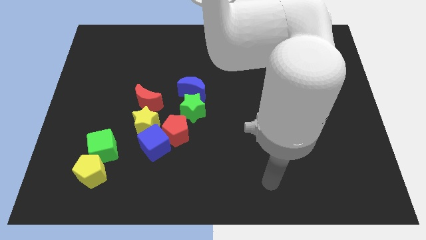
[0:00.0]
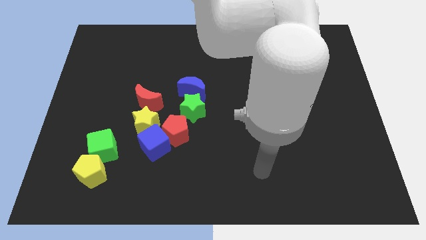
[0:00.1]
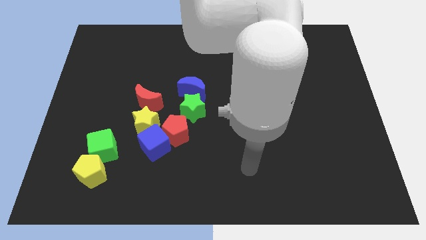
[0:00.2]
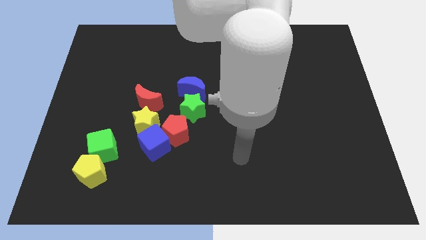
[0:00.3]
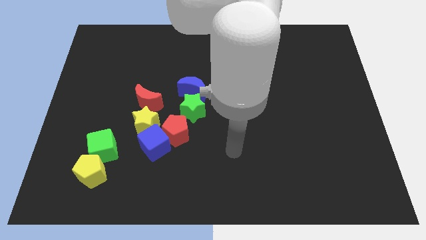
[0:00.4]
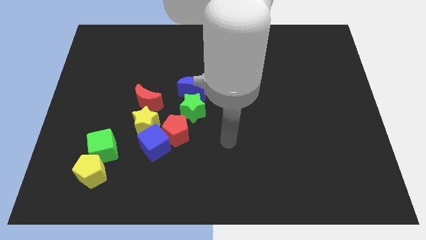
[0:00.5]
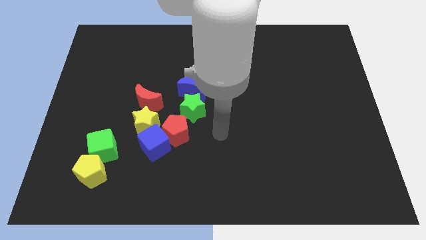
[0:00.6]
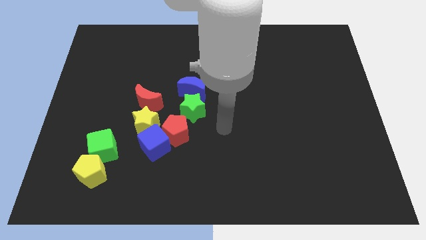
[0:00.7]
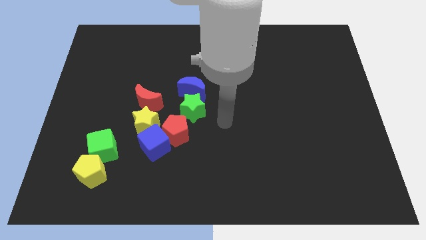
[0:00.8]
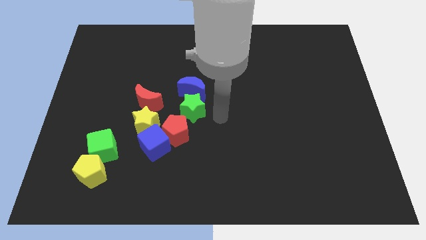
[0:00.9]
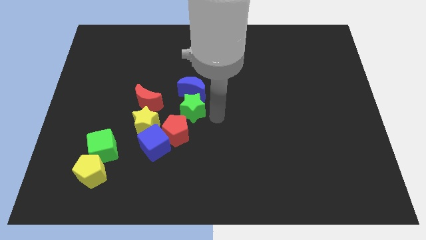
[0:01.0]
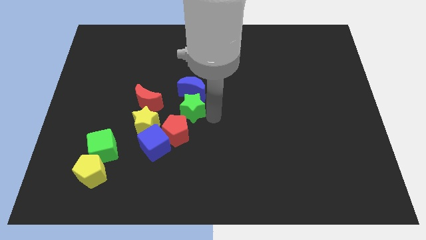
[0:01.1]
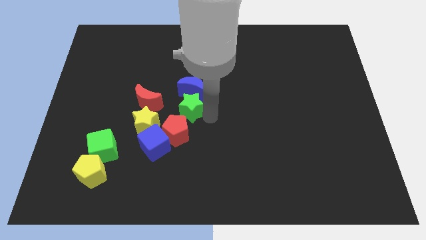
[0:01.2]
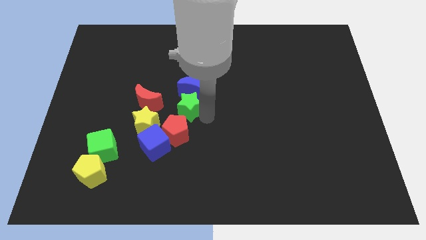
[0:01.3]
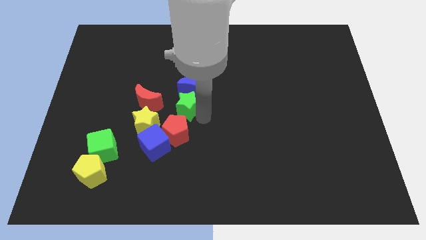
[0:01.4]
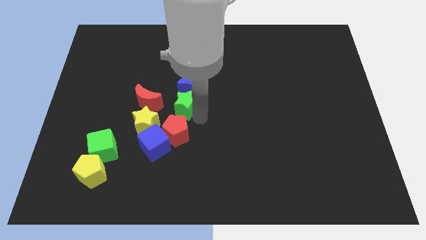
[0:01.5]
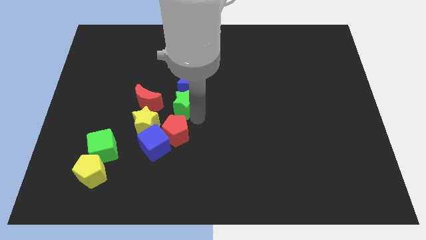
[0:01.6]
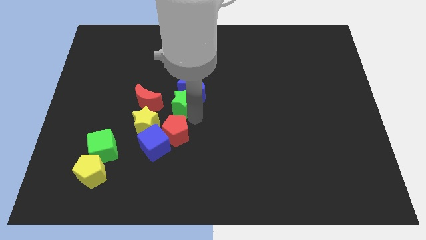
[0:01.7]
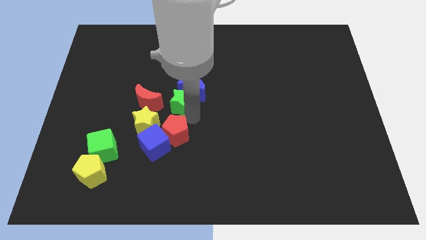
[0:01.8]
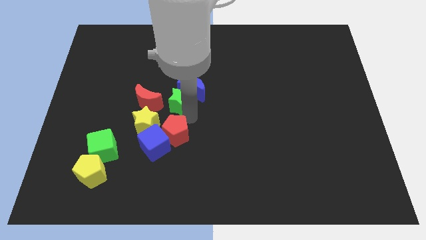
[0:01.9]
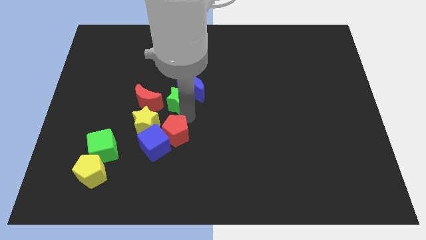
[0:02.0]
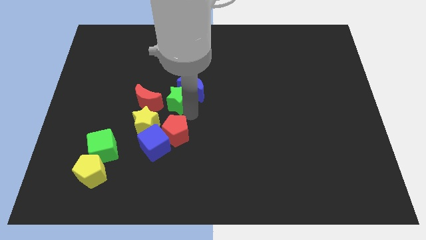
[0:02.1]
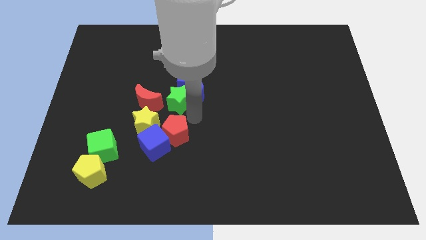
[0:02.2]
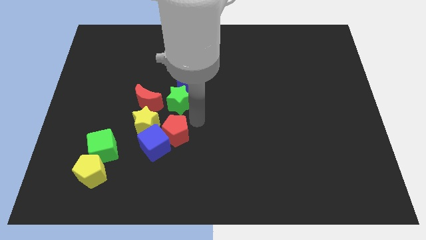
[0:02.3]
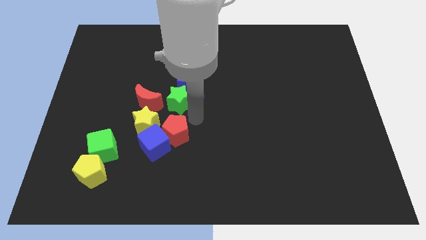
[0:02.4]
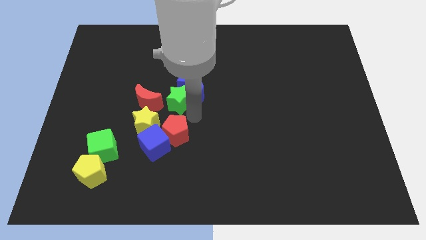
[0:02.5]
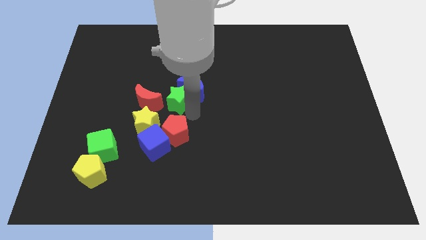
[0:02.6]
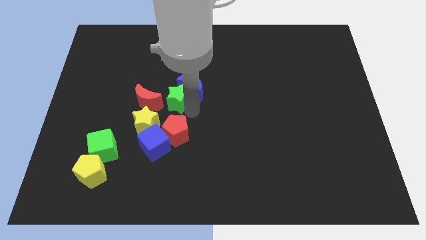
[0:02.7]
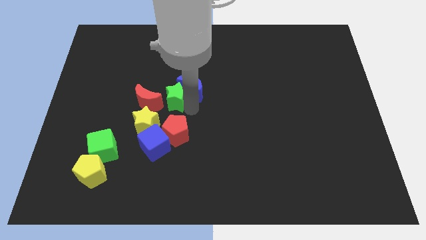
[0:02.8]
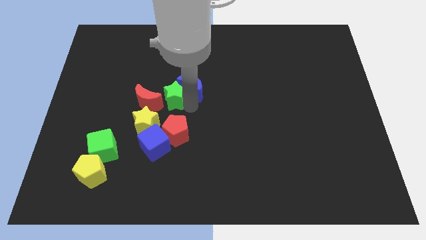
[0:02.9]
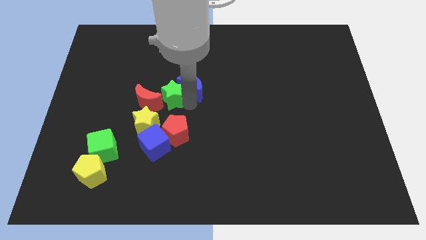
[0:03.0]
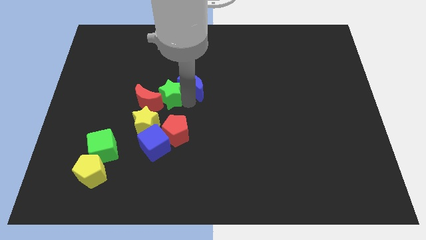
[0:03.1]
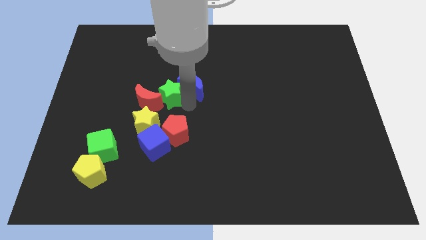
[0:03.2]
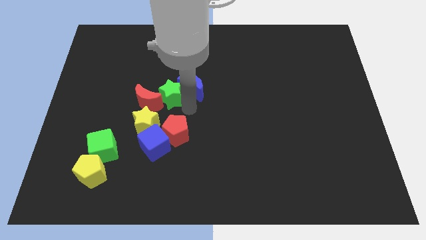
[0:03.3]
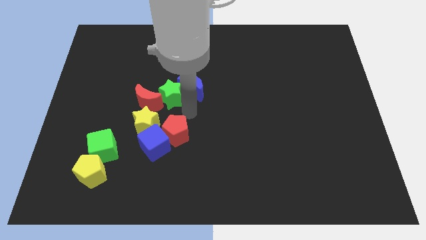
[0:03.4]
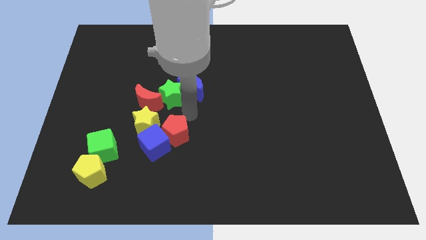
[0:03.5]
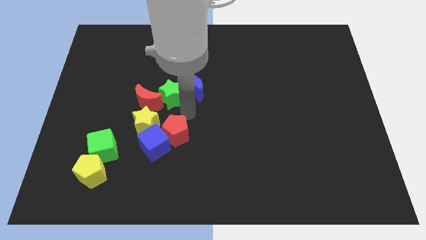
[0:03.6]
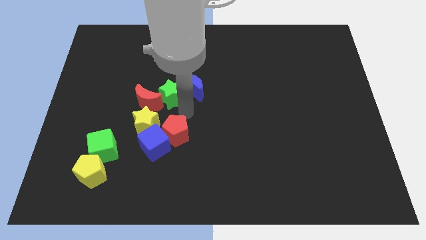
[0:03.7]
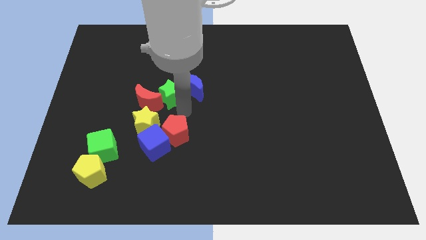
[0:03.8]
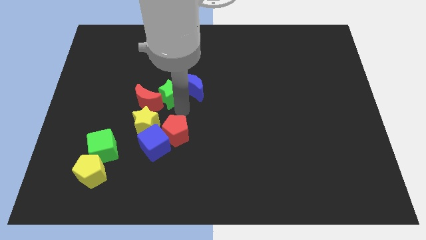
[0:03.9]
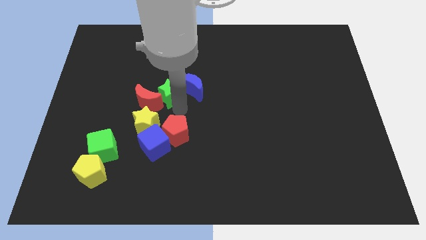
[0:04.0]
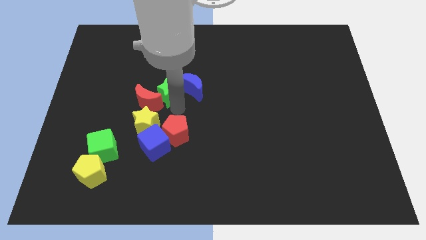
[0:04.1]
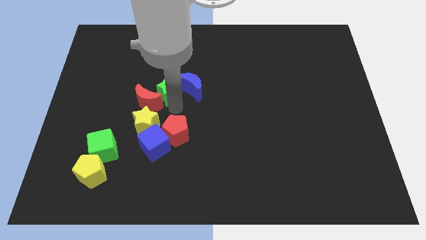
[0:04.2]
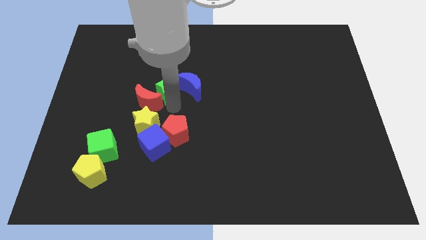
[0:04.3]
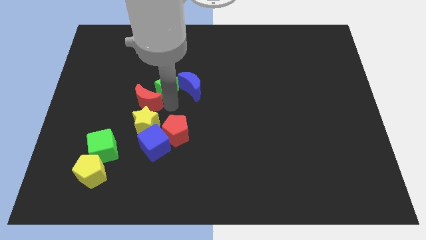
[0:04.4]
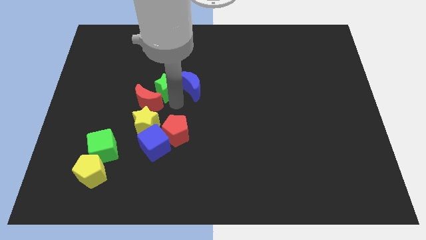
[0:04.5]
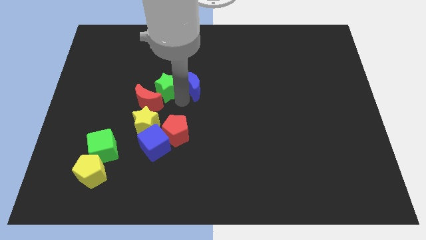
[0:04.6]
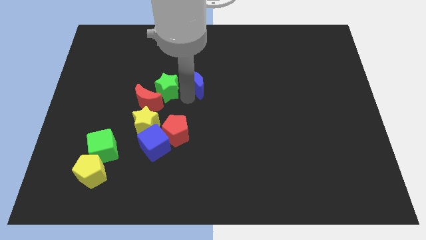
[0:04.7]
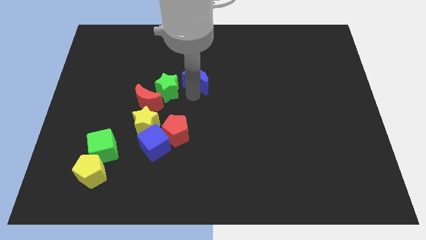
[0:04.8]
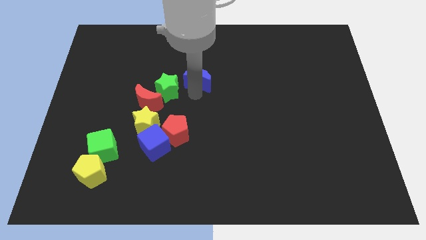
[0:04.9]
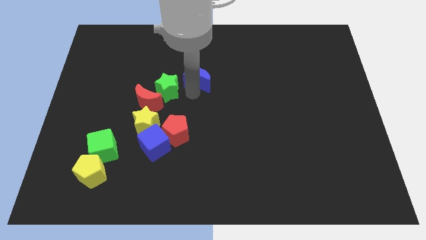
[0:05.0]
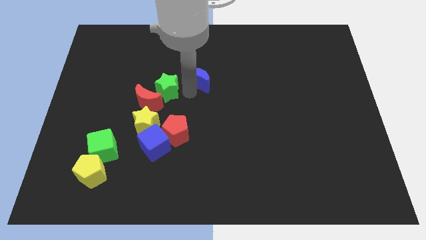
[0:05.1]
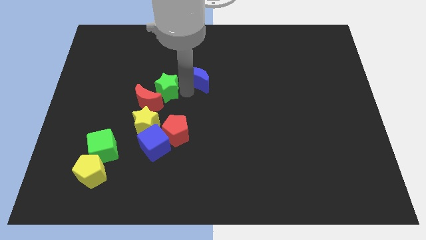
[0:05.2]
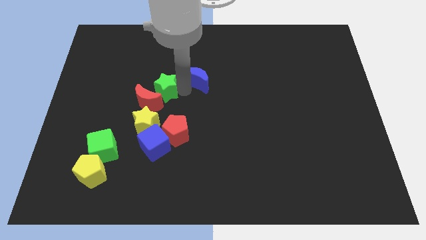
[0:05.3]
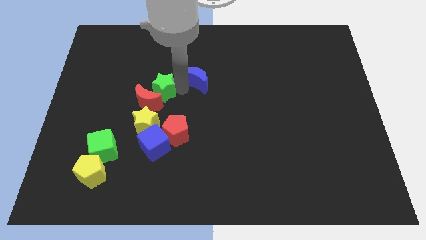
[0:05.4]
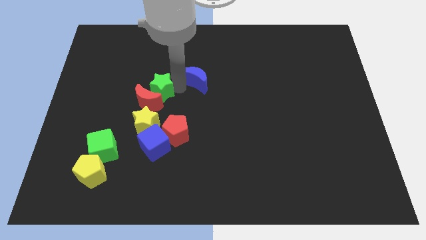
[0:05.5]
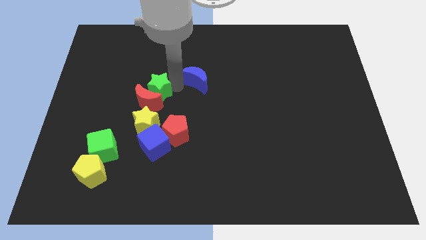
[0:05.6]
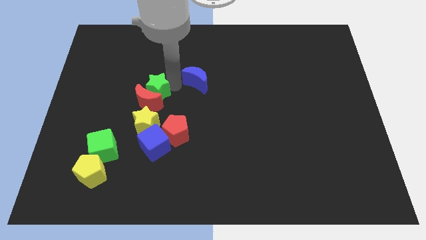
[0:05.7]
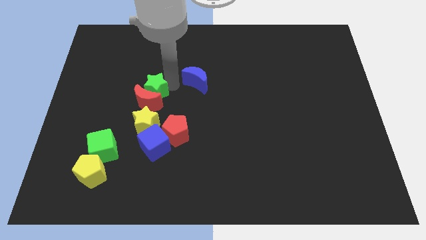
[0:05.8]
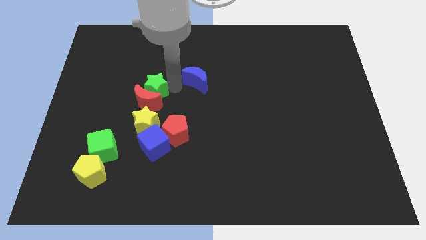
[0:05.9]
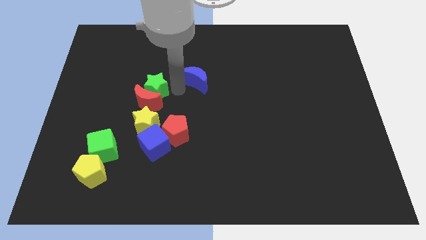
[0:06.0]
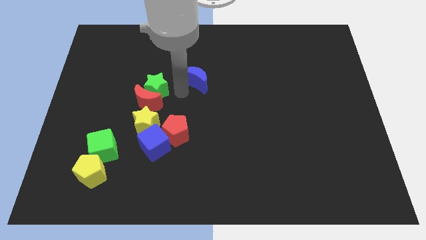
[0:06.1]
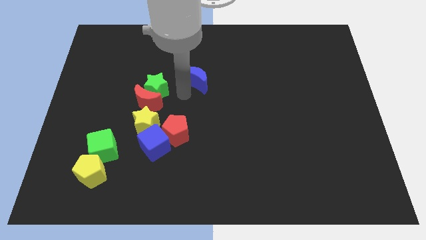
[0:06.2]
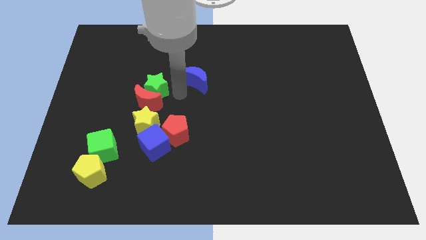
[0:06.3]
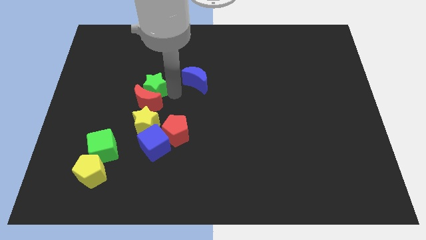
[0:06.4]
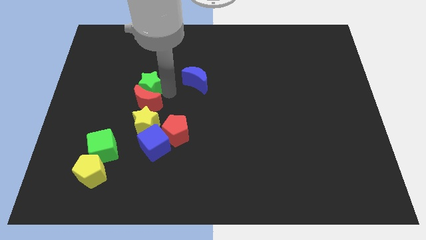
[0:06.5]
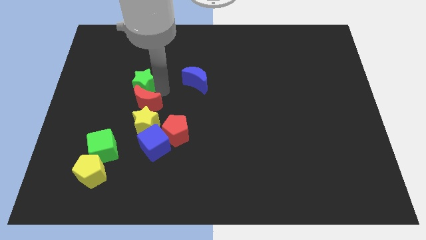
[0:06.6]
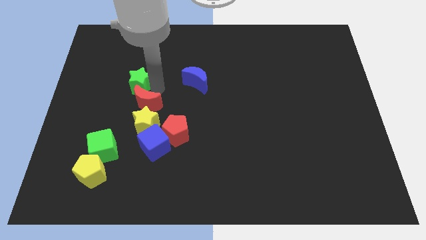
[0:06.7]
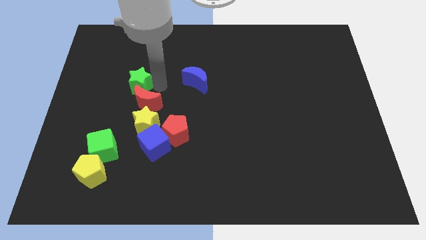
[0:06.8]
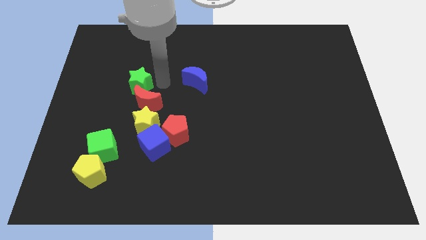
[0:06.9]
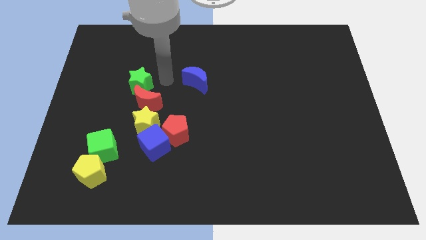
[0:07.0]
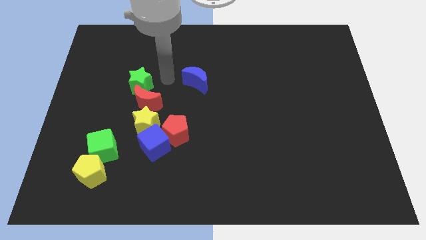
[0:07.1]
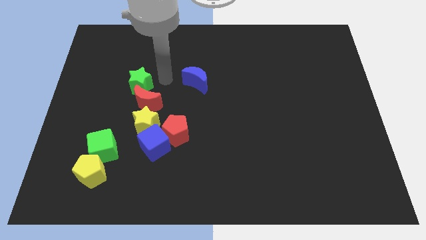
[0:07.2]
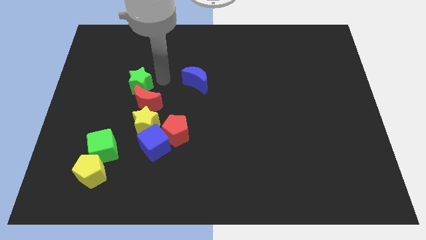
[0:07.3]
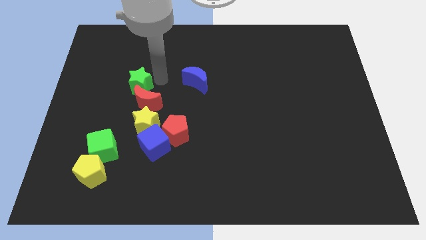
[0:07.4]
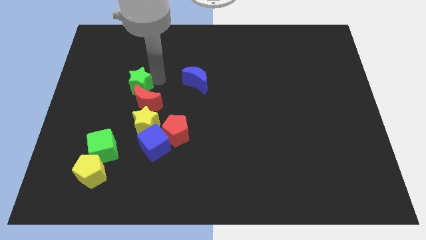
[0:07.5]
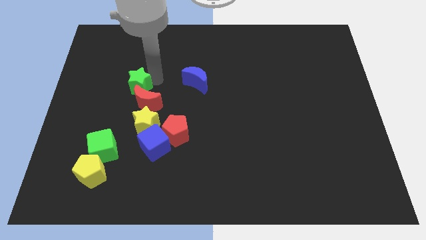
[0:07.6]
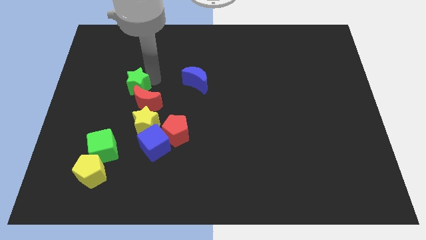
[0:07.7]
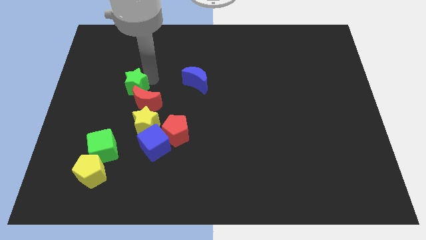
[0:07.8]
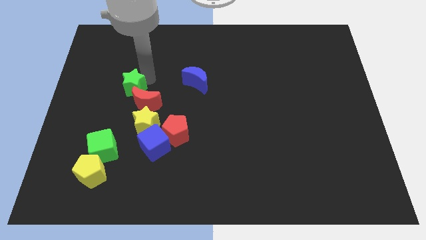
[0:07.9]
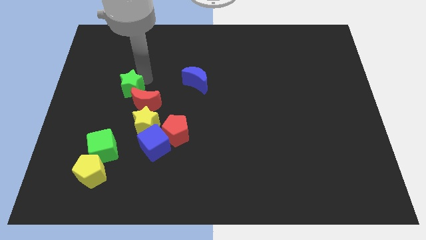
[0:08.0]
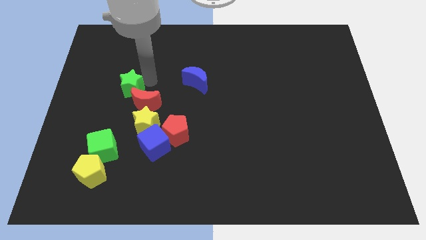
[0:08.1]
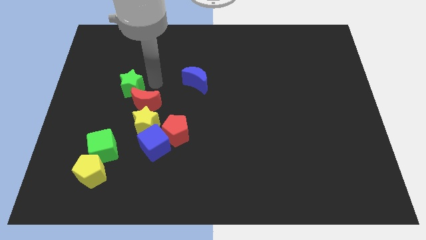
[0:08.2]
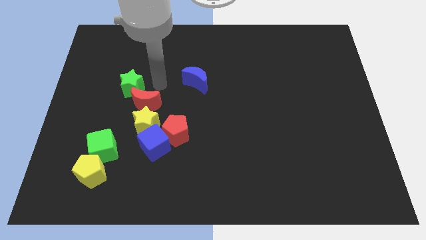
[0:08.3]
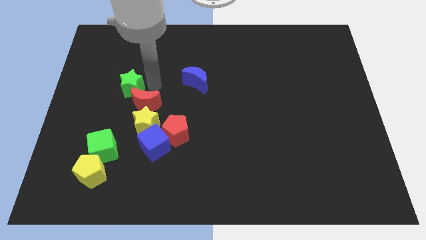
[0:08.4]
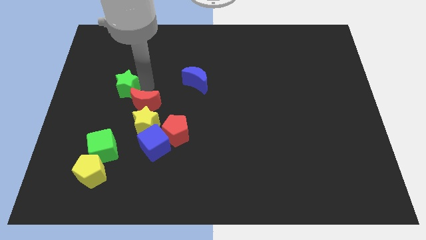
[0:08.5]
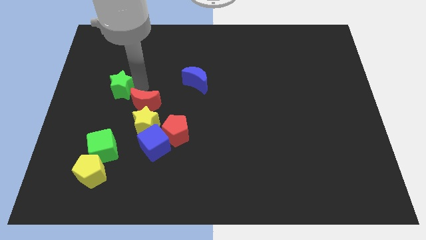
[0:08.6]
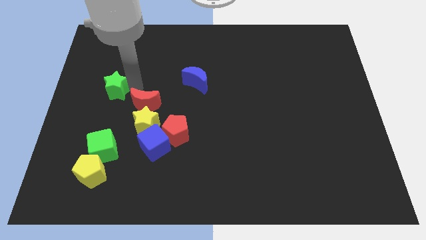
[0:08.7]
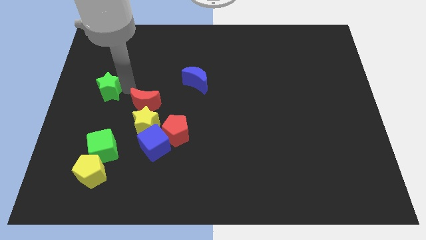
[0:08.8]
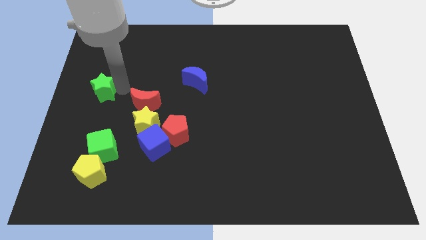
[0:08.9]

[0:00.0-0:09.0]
move the green star to the center left
